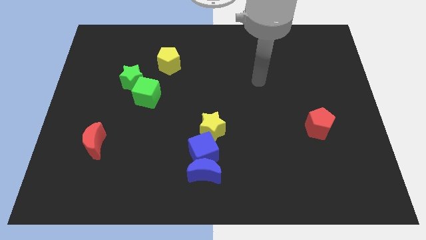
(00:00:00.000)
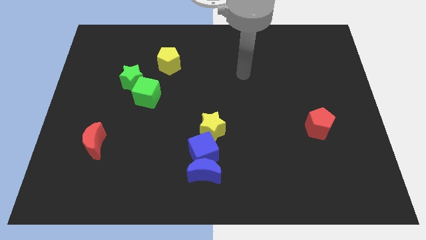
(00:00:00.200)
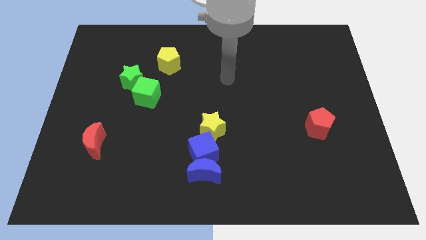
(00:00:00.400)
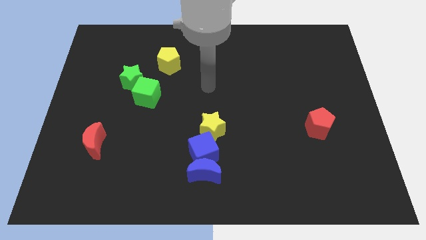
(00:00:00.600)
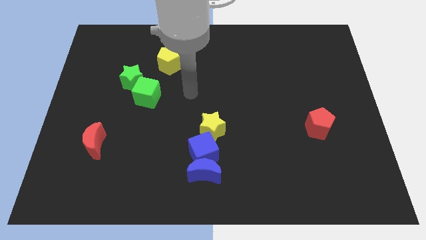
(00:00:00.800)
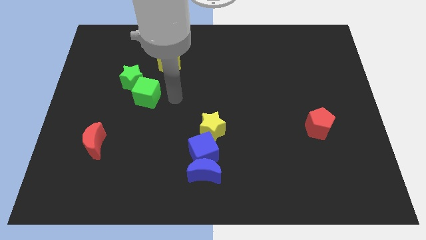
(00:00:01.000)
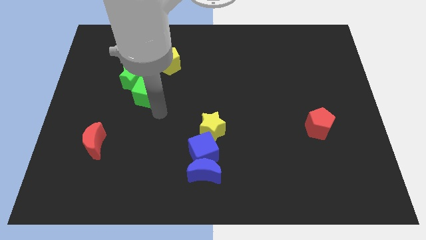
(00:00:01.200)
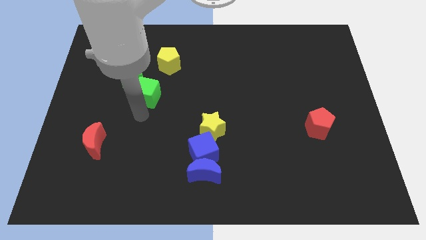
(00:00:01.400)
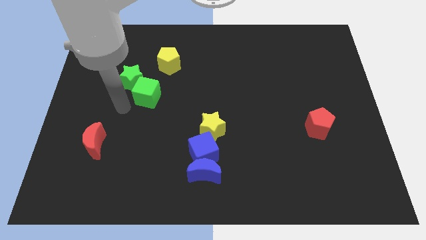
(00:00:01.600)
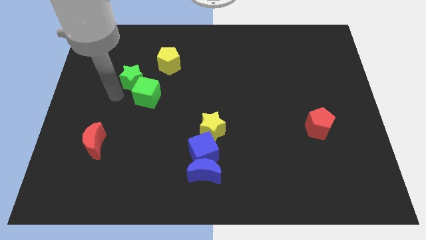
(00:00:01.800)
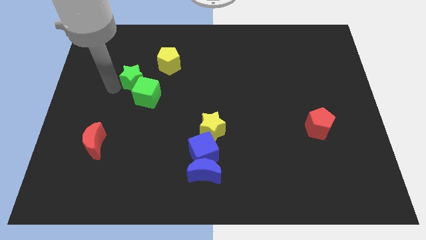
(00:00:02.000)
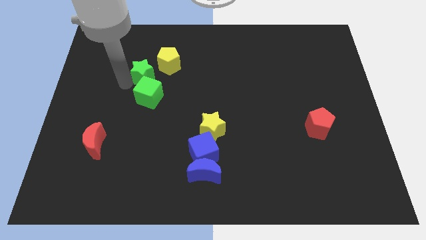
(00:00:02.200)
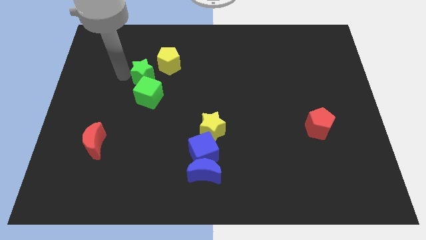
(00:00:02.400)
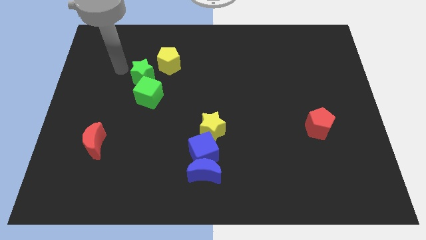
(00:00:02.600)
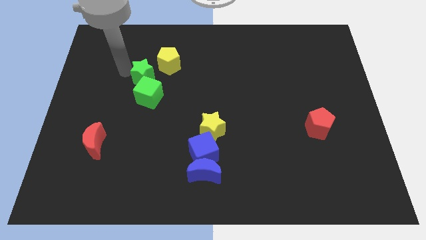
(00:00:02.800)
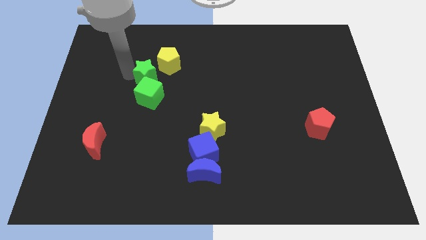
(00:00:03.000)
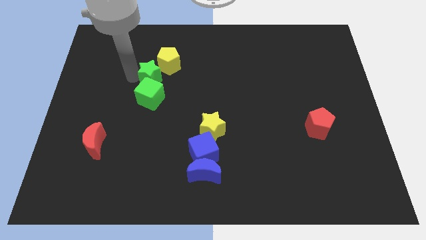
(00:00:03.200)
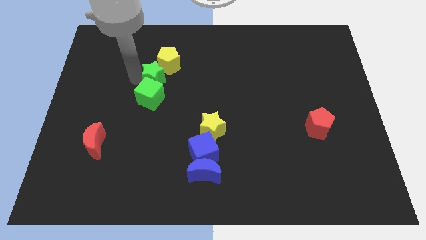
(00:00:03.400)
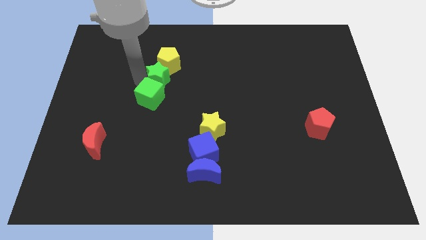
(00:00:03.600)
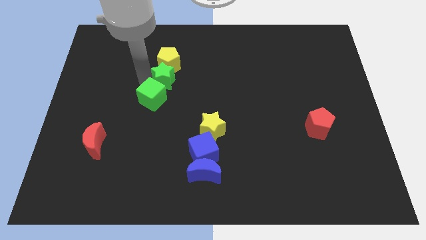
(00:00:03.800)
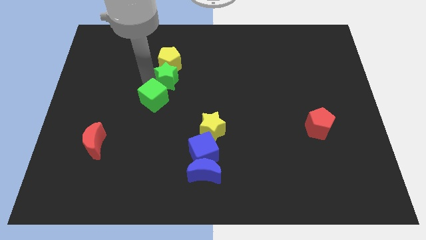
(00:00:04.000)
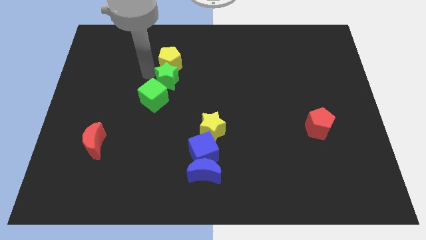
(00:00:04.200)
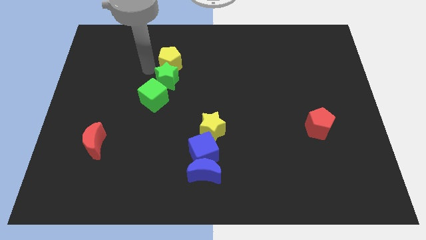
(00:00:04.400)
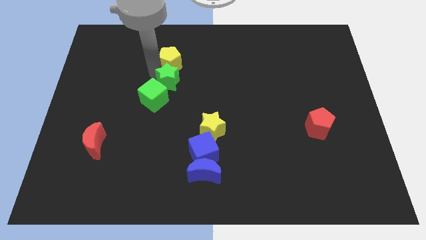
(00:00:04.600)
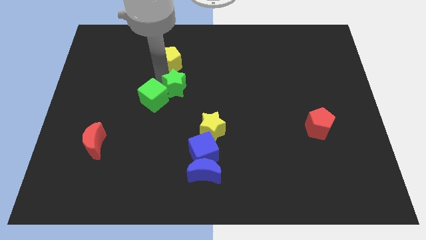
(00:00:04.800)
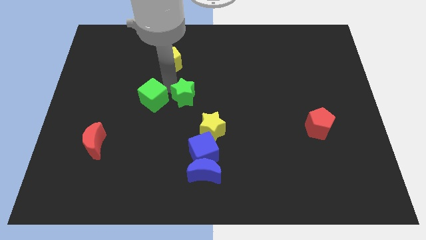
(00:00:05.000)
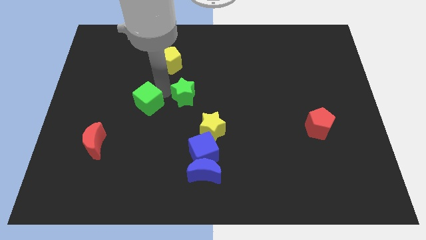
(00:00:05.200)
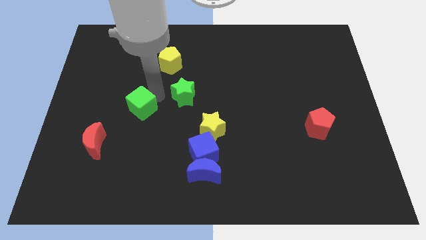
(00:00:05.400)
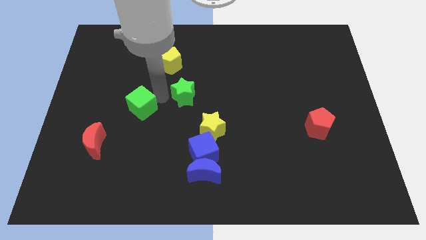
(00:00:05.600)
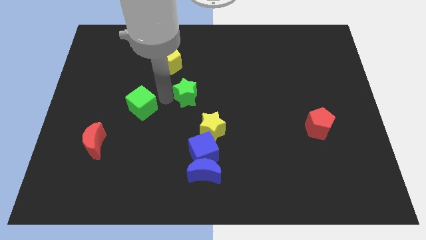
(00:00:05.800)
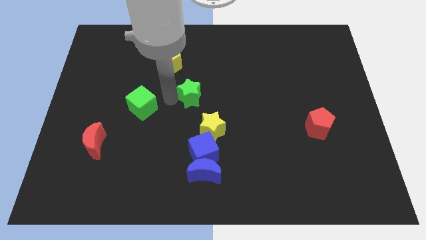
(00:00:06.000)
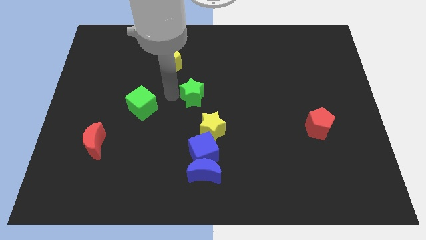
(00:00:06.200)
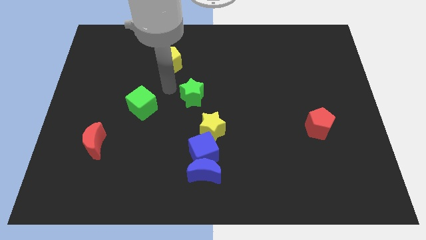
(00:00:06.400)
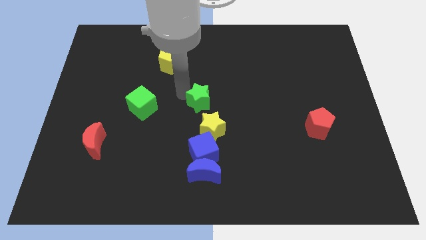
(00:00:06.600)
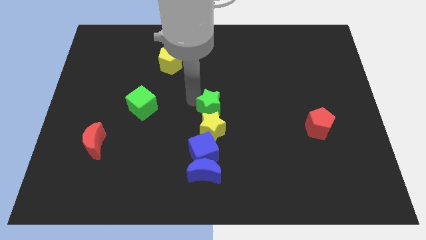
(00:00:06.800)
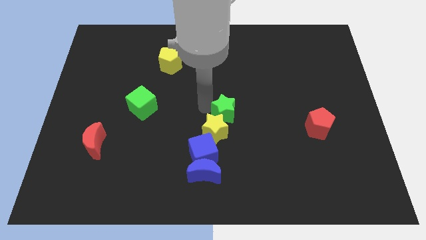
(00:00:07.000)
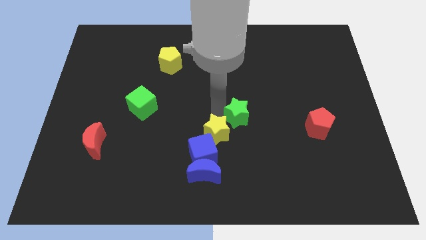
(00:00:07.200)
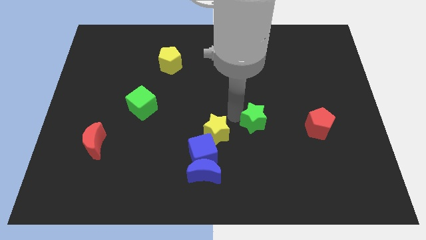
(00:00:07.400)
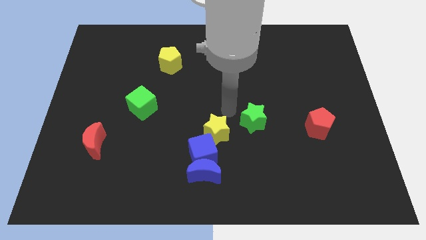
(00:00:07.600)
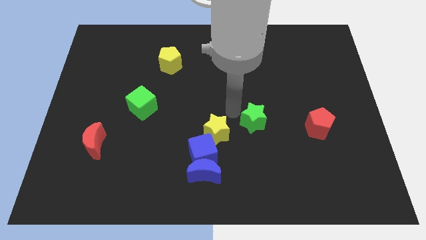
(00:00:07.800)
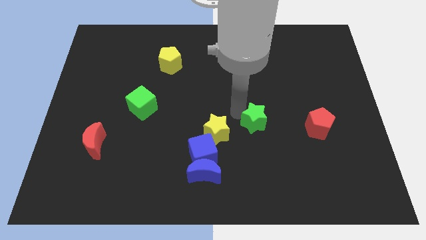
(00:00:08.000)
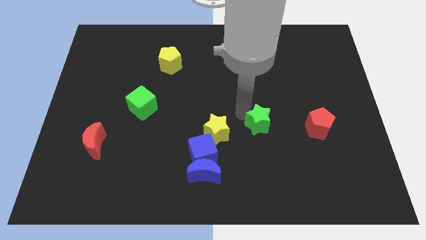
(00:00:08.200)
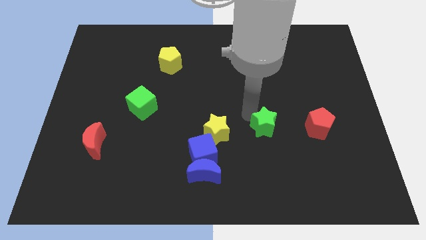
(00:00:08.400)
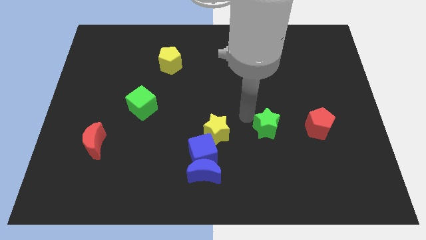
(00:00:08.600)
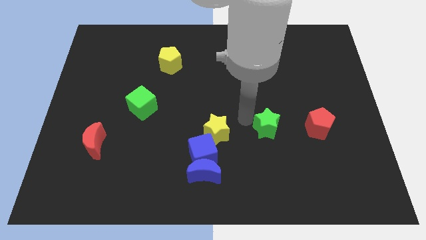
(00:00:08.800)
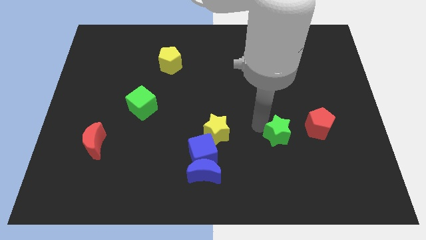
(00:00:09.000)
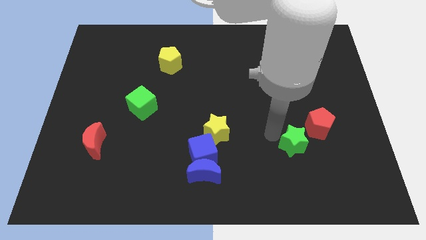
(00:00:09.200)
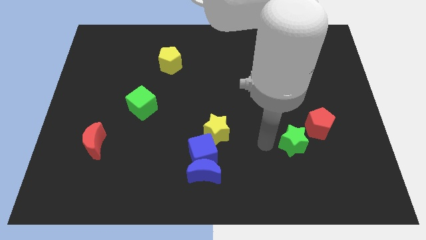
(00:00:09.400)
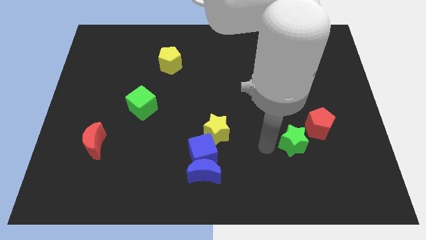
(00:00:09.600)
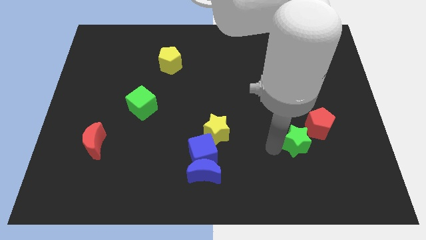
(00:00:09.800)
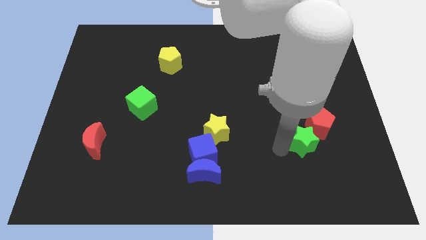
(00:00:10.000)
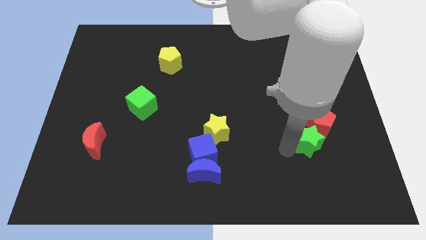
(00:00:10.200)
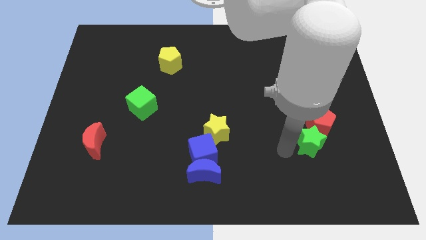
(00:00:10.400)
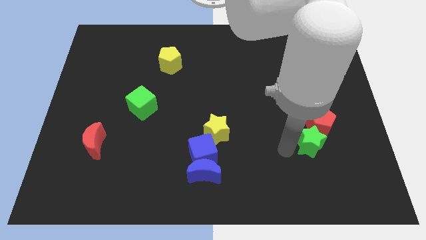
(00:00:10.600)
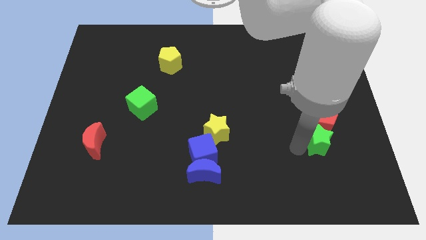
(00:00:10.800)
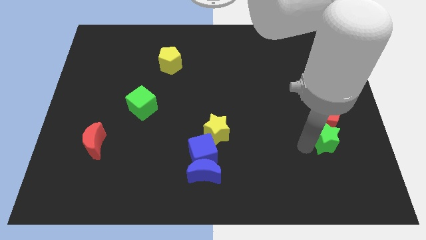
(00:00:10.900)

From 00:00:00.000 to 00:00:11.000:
put the green star to the bottom right of the red pentagon

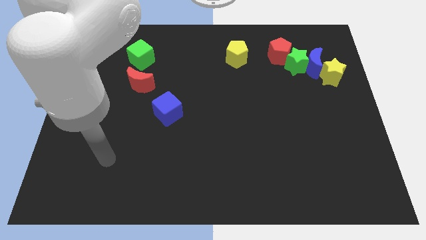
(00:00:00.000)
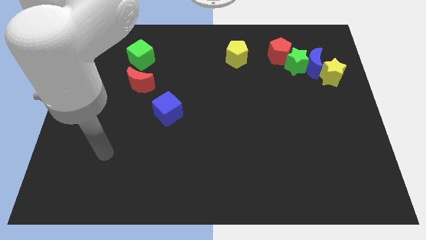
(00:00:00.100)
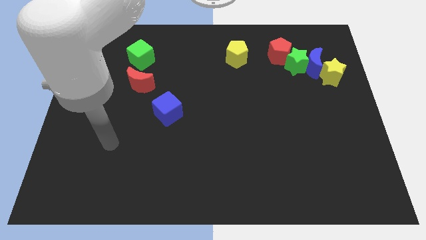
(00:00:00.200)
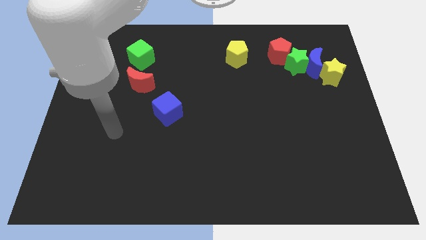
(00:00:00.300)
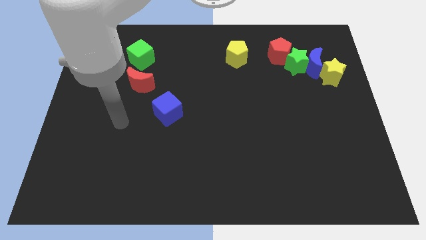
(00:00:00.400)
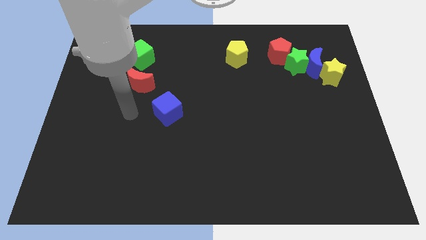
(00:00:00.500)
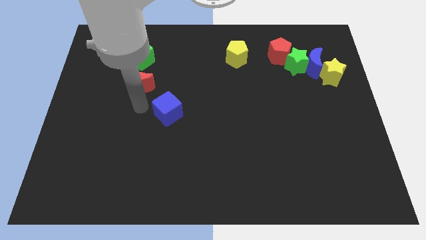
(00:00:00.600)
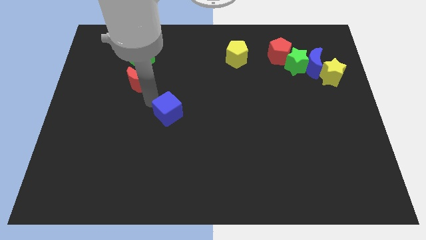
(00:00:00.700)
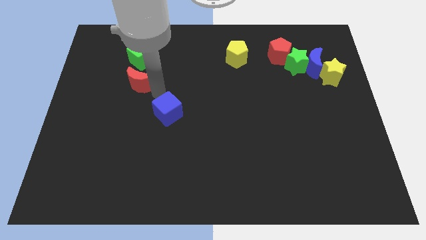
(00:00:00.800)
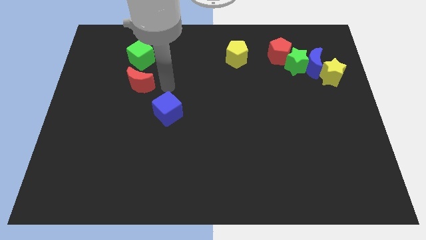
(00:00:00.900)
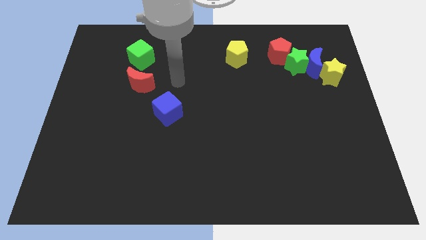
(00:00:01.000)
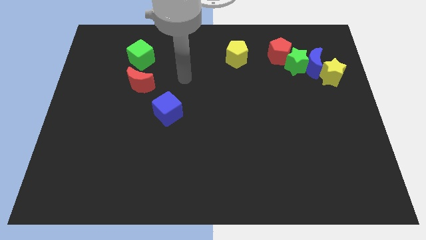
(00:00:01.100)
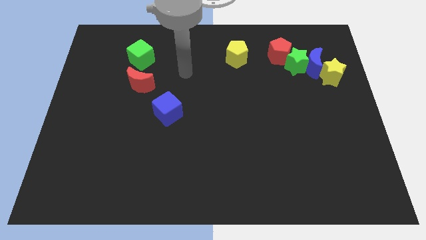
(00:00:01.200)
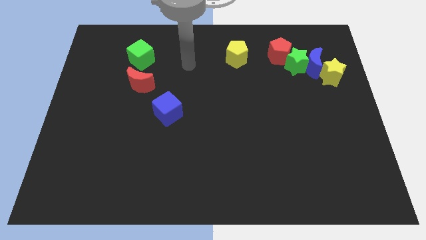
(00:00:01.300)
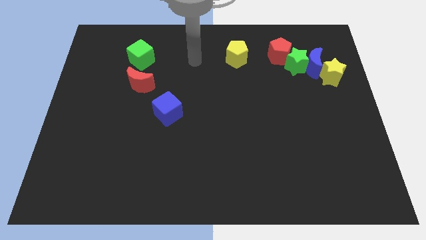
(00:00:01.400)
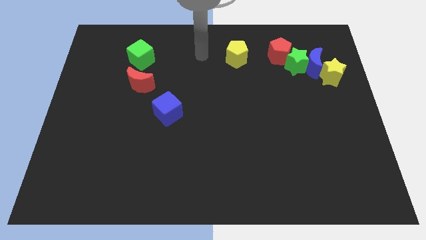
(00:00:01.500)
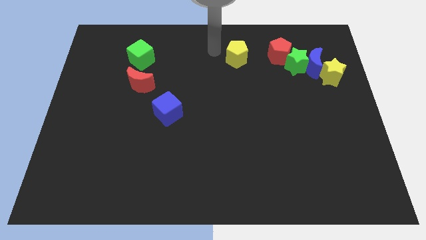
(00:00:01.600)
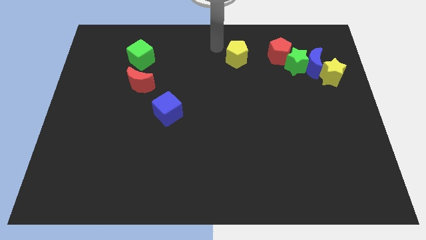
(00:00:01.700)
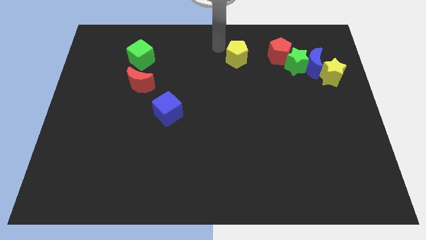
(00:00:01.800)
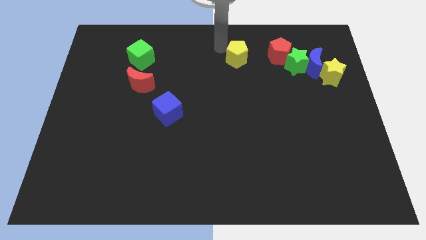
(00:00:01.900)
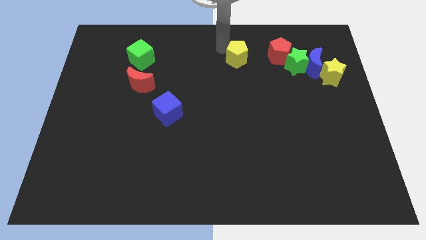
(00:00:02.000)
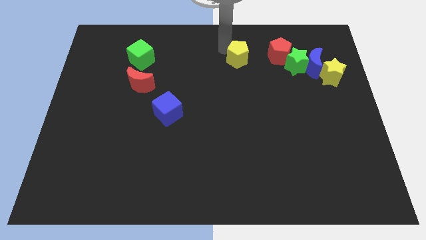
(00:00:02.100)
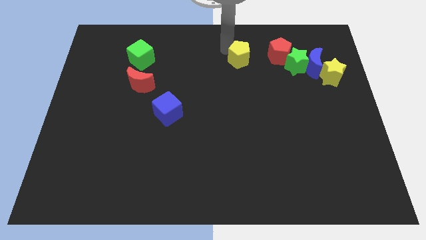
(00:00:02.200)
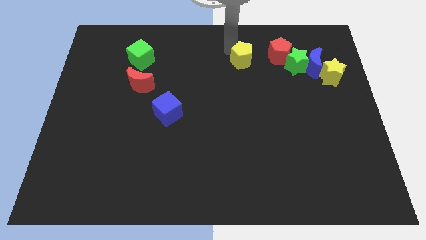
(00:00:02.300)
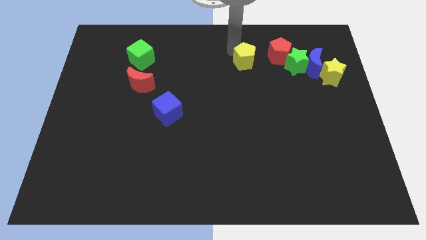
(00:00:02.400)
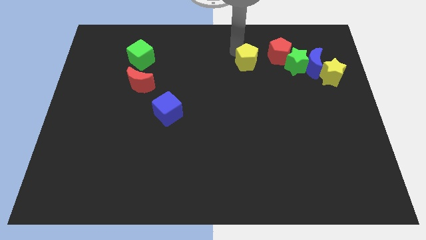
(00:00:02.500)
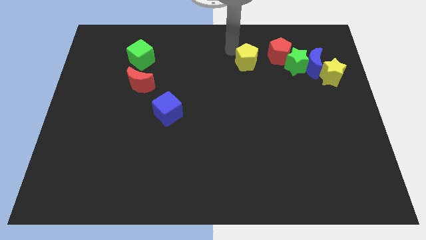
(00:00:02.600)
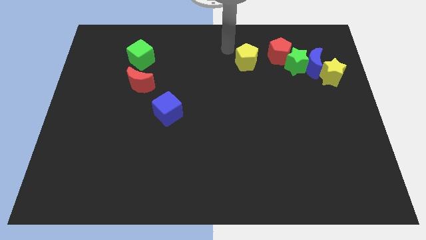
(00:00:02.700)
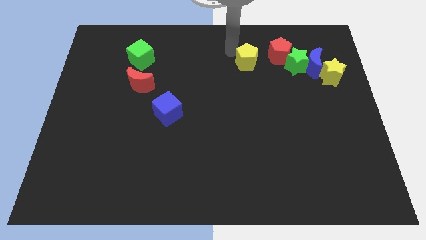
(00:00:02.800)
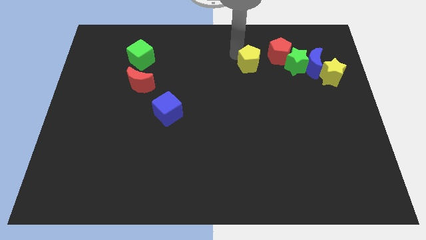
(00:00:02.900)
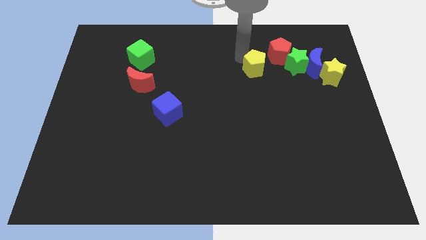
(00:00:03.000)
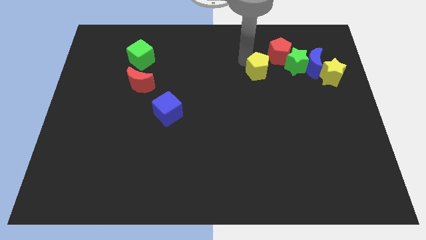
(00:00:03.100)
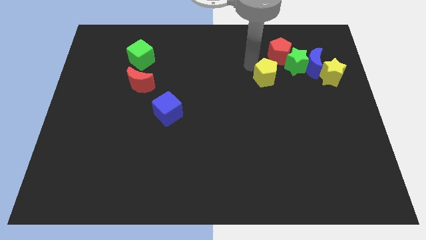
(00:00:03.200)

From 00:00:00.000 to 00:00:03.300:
slide the yellow pentagon below the red pentagon
